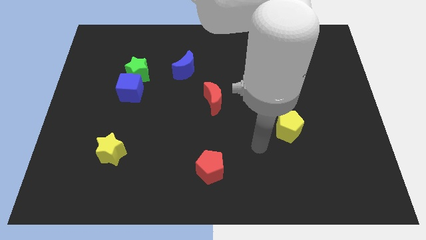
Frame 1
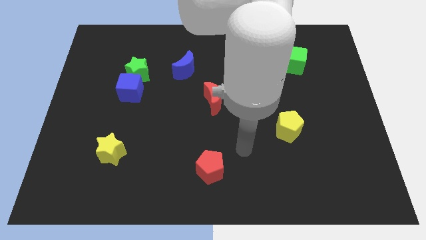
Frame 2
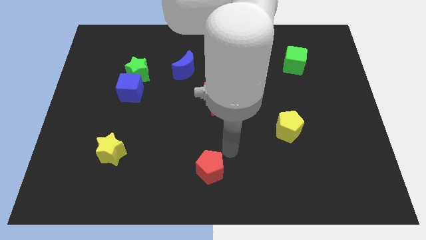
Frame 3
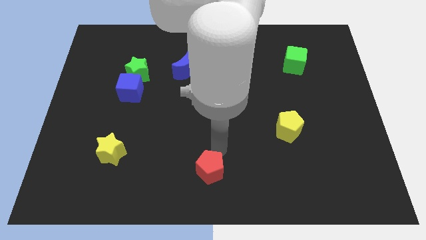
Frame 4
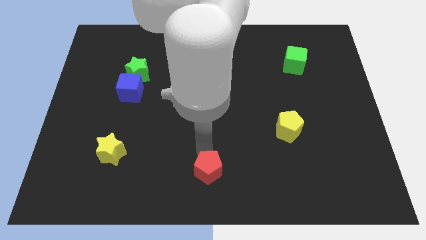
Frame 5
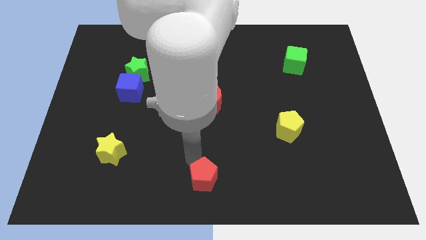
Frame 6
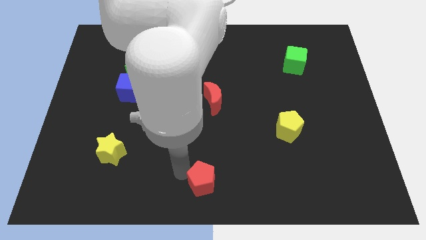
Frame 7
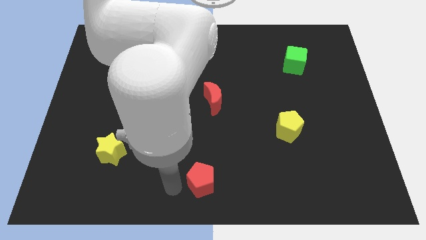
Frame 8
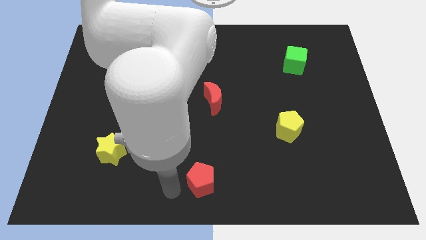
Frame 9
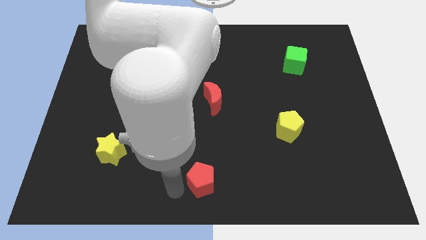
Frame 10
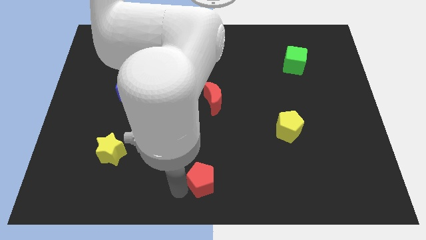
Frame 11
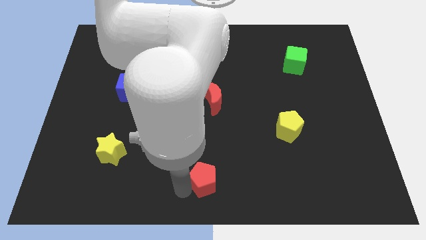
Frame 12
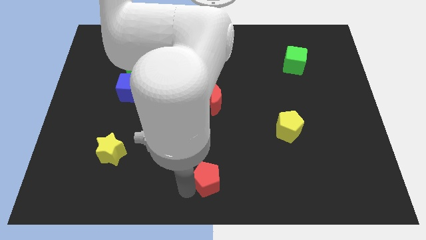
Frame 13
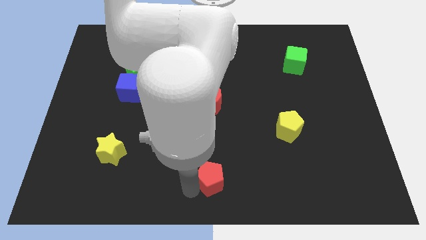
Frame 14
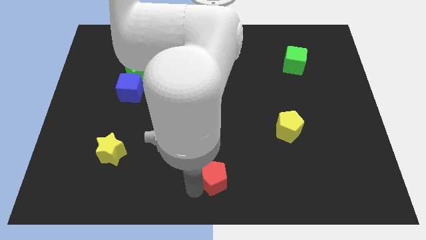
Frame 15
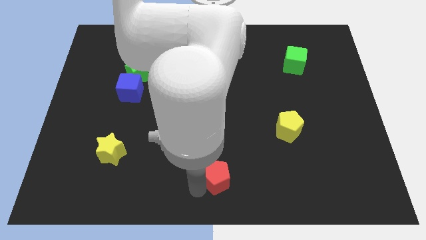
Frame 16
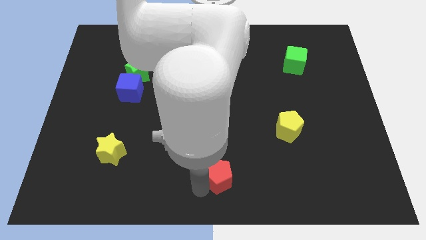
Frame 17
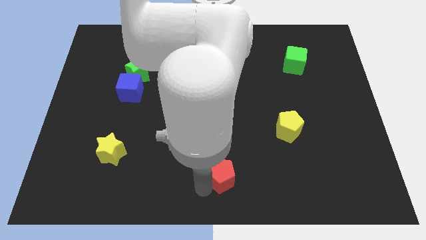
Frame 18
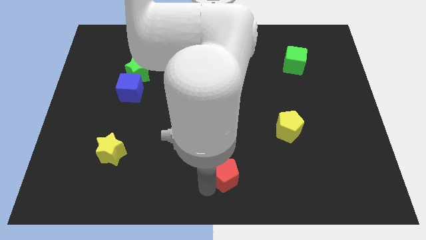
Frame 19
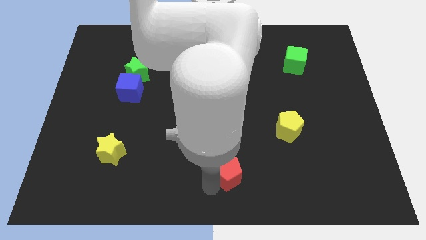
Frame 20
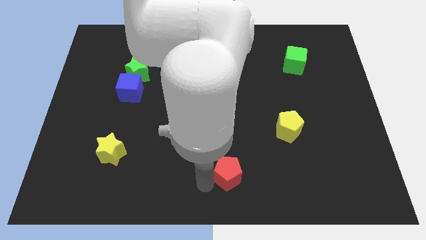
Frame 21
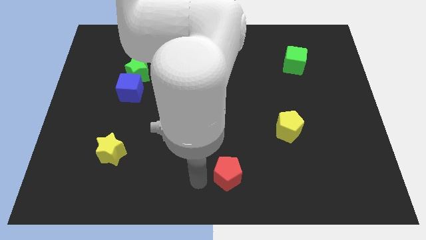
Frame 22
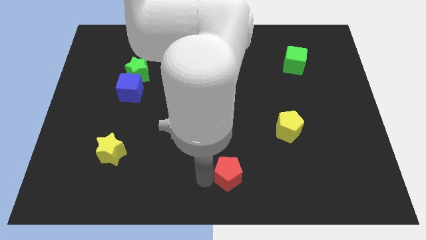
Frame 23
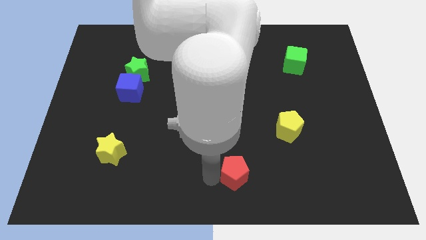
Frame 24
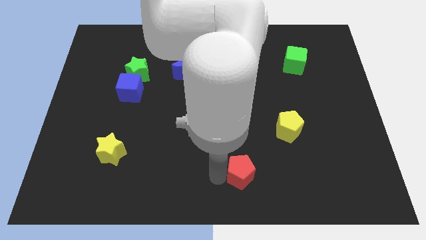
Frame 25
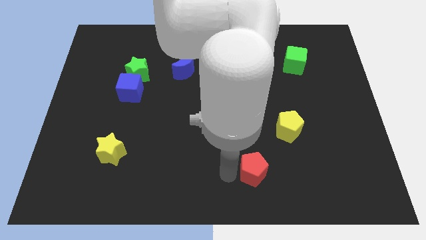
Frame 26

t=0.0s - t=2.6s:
move the red pentagon right a little

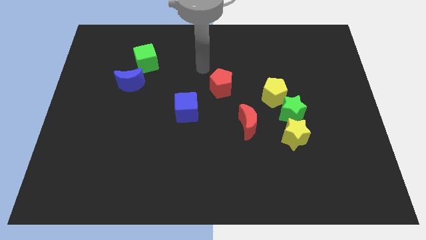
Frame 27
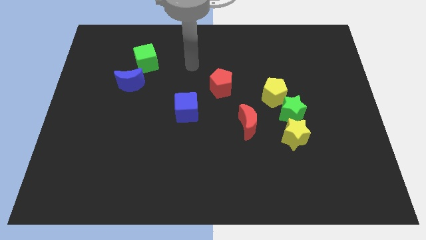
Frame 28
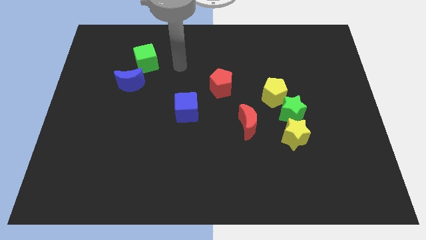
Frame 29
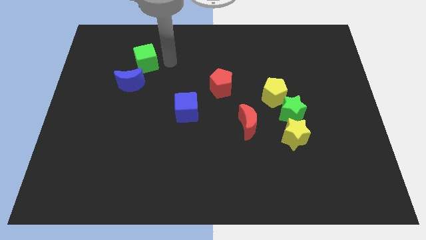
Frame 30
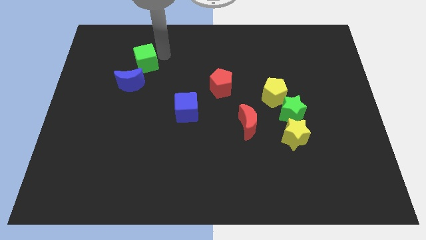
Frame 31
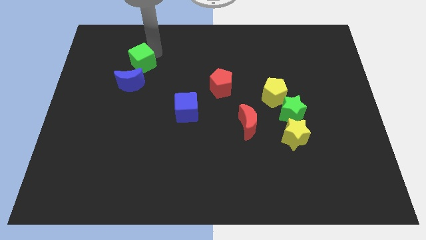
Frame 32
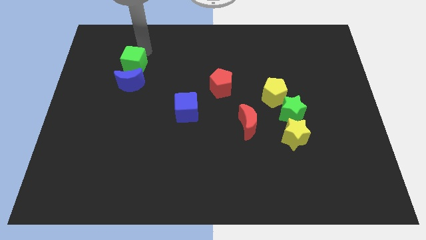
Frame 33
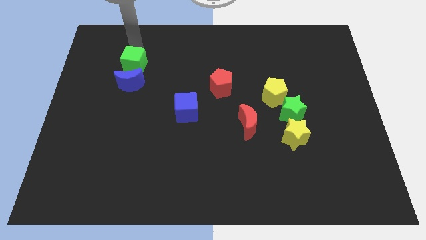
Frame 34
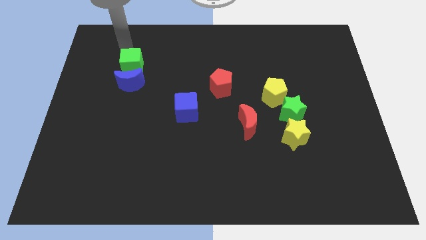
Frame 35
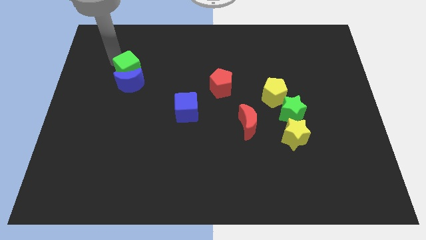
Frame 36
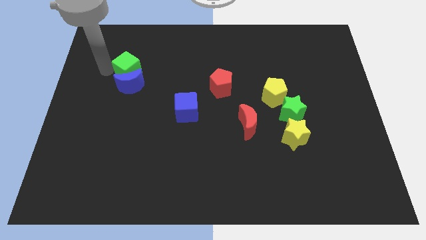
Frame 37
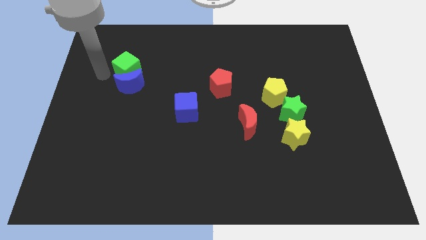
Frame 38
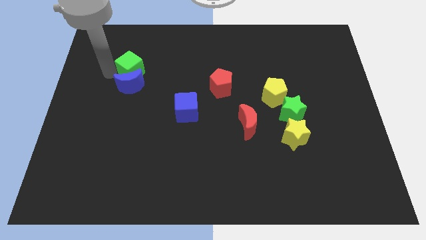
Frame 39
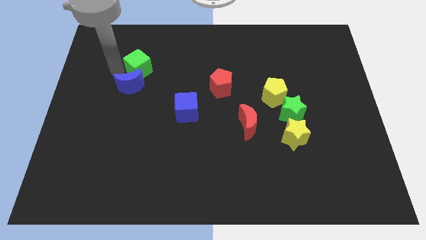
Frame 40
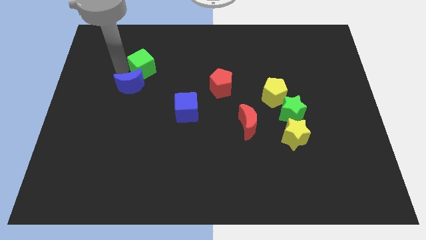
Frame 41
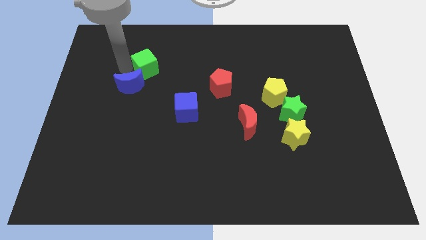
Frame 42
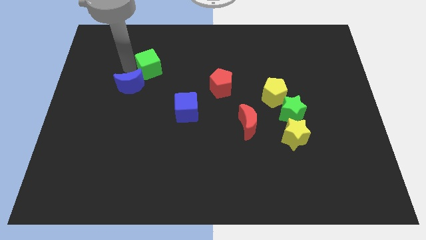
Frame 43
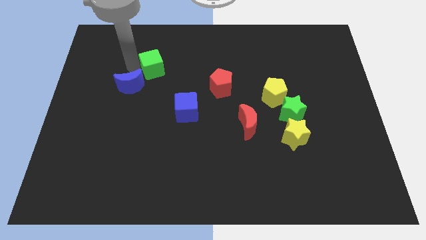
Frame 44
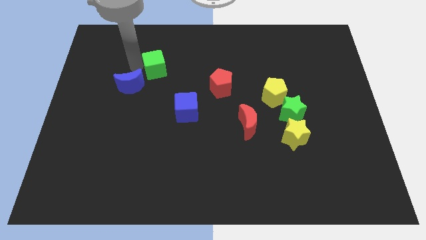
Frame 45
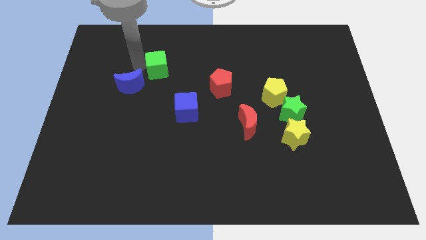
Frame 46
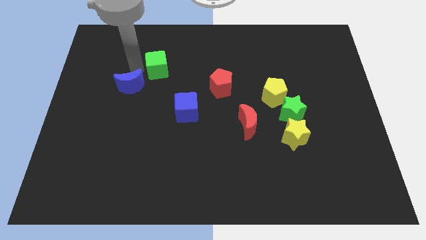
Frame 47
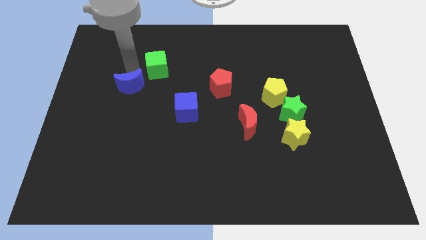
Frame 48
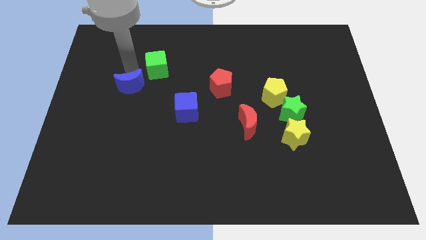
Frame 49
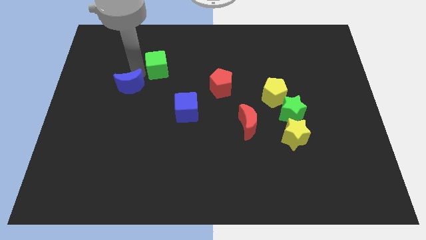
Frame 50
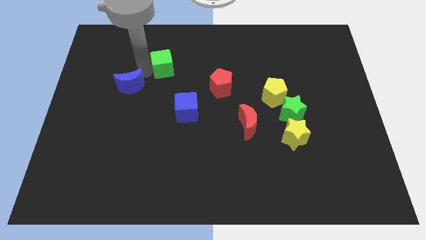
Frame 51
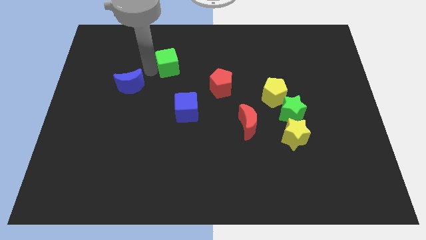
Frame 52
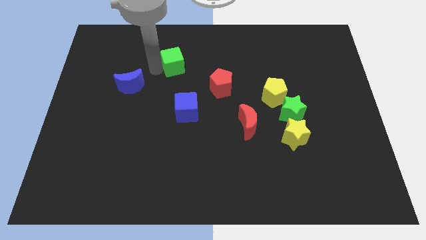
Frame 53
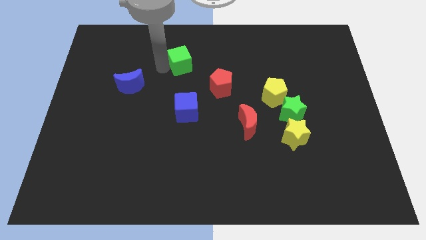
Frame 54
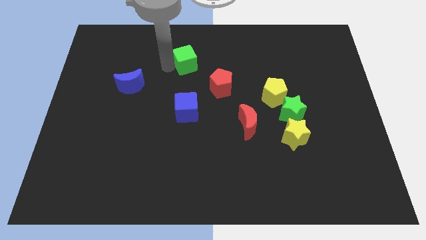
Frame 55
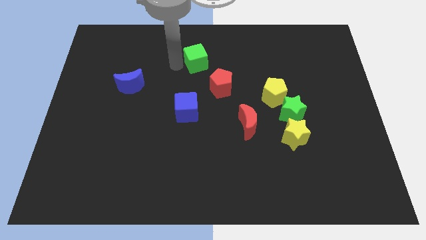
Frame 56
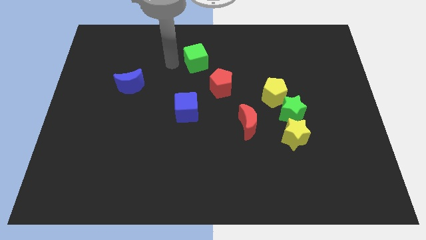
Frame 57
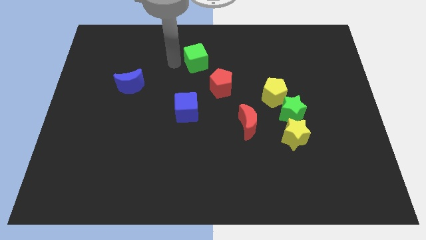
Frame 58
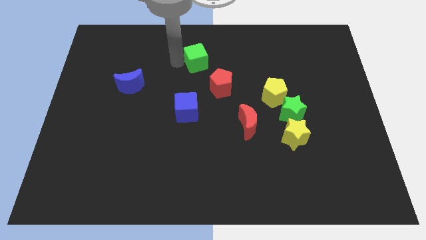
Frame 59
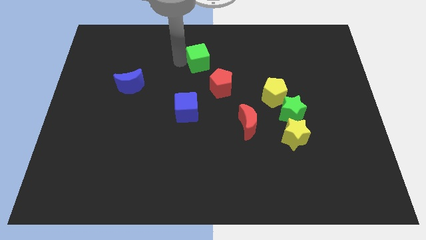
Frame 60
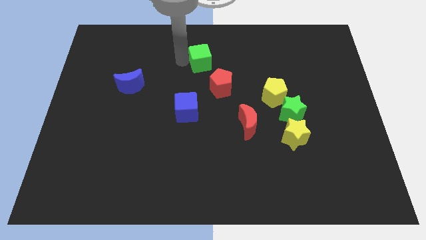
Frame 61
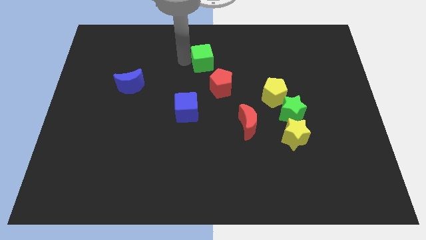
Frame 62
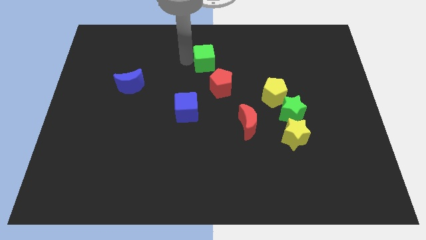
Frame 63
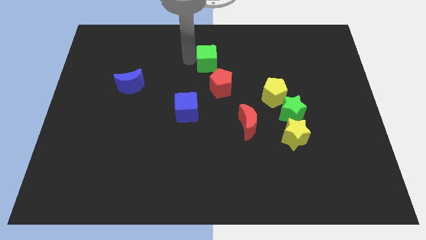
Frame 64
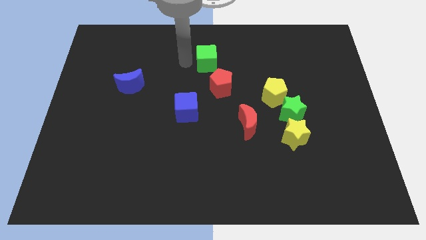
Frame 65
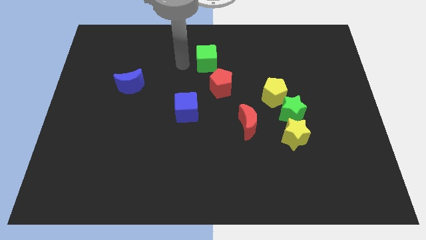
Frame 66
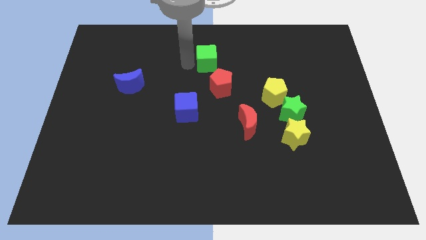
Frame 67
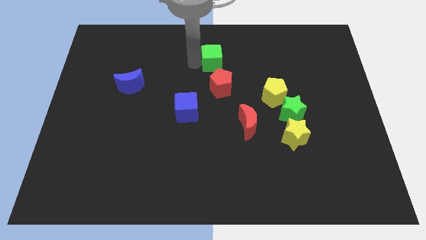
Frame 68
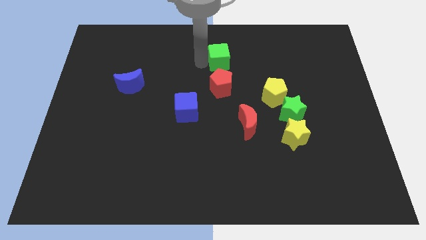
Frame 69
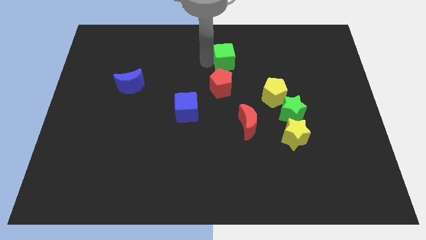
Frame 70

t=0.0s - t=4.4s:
push the green cube to the right

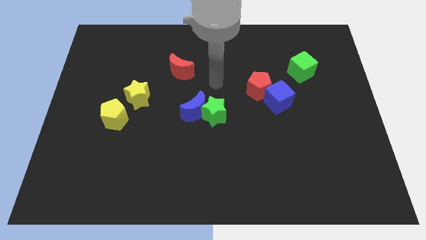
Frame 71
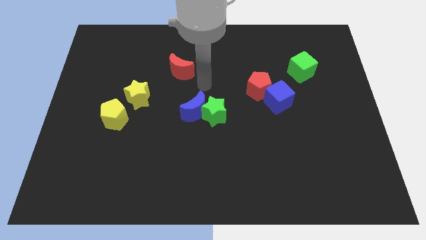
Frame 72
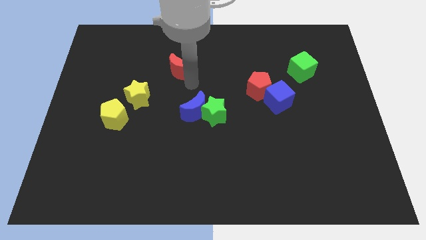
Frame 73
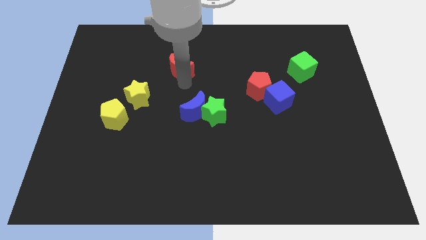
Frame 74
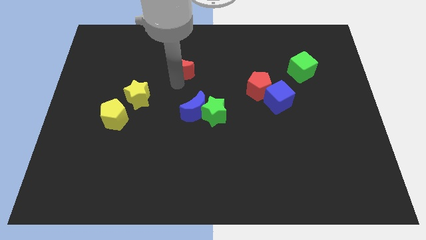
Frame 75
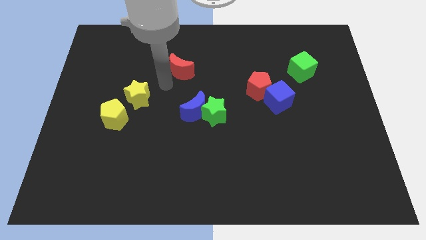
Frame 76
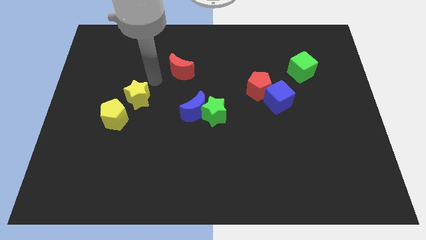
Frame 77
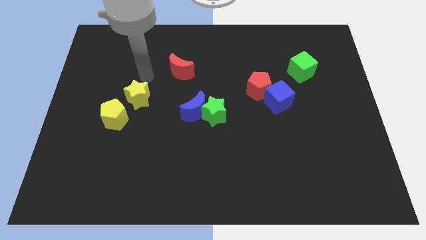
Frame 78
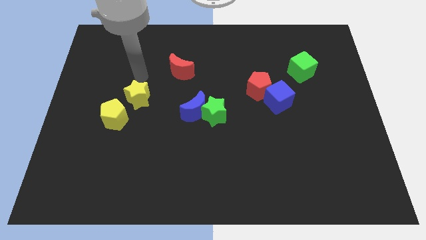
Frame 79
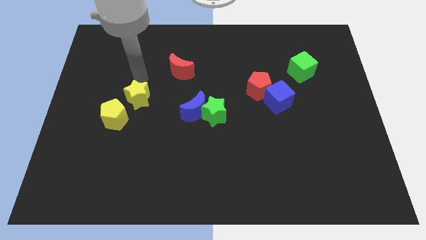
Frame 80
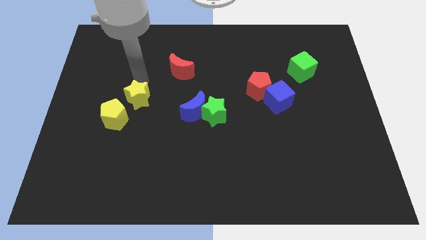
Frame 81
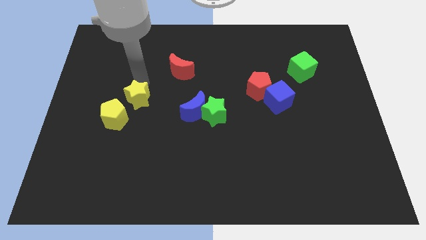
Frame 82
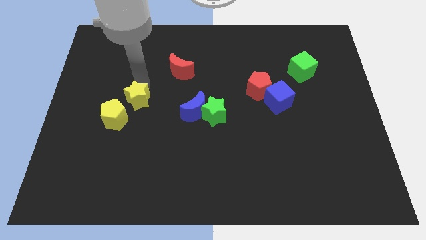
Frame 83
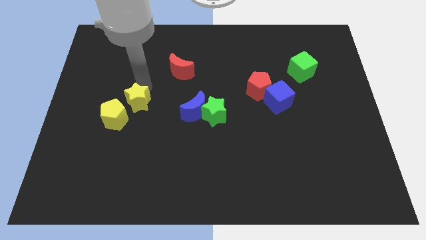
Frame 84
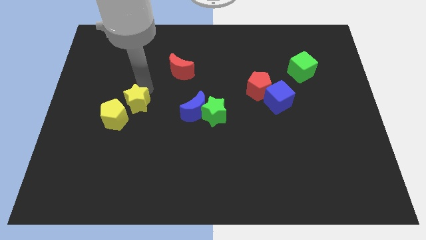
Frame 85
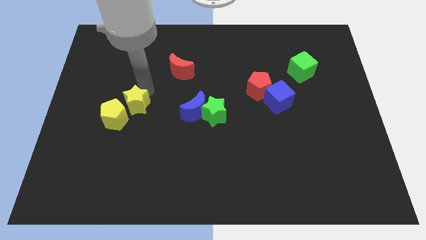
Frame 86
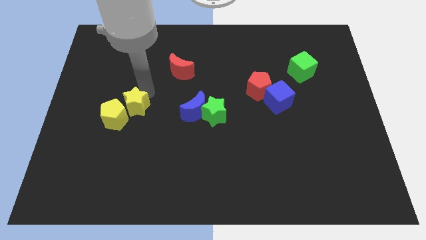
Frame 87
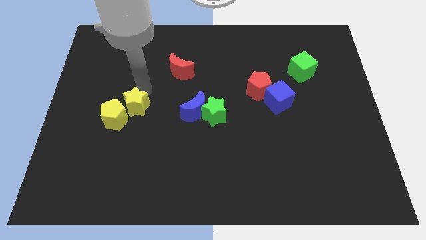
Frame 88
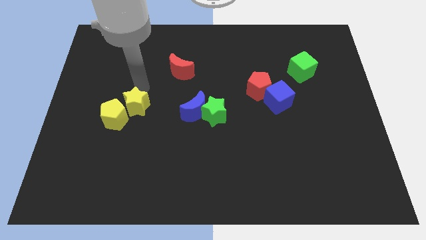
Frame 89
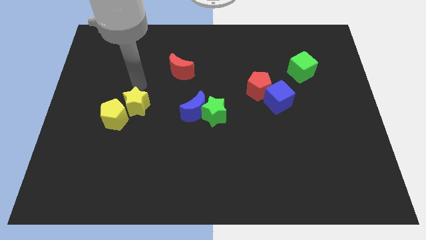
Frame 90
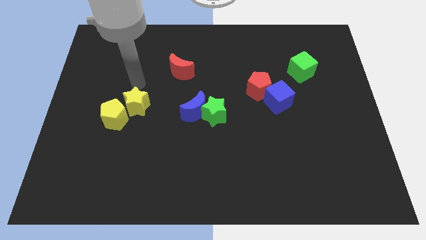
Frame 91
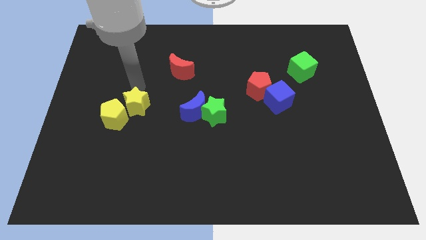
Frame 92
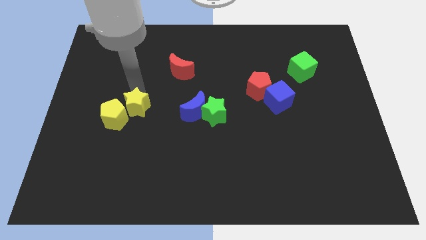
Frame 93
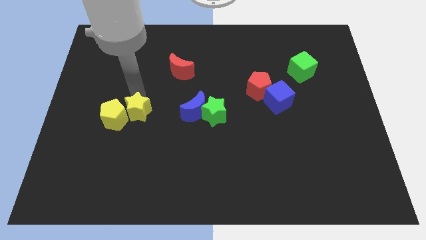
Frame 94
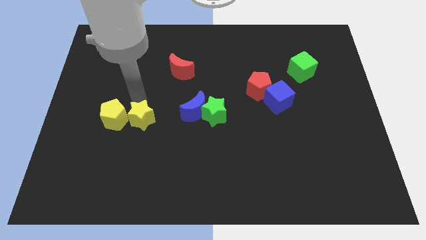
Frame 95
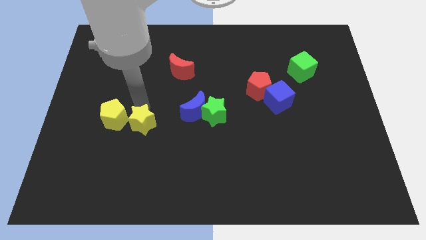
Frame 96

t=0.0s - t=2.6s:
slightly push the yellow star downwards
